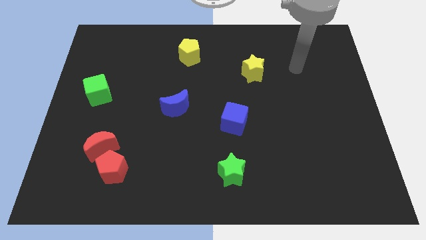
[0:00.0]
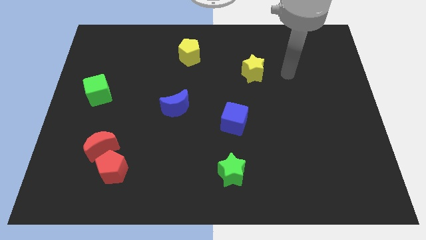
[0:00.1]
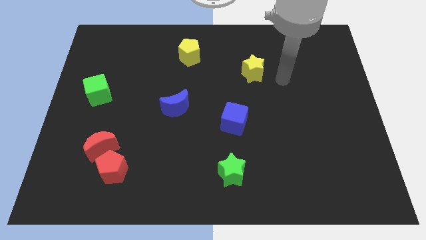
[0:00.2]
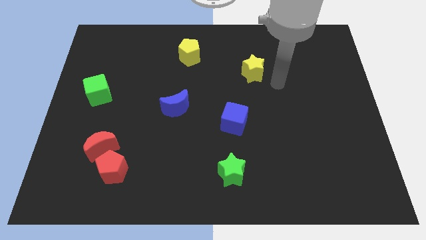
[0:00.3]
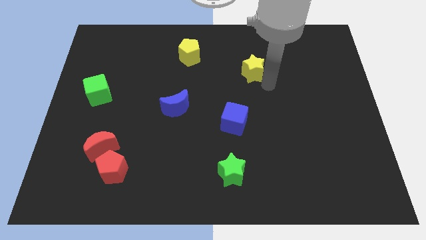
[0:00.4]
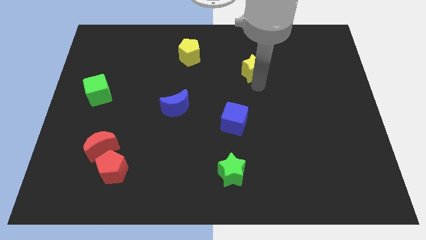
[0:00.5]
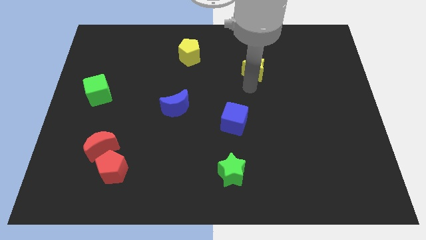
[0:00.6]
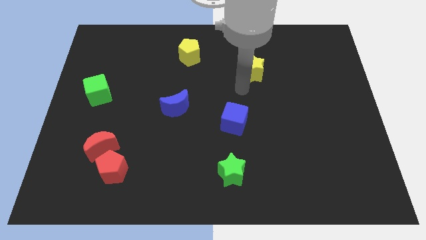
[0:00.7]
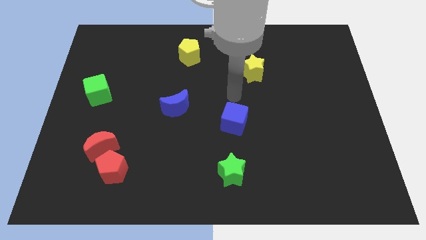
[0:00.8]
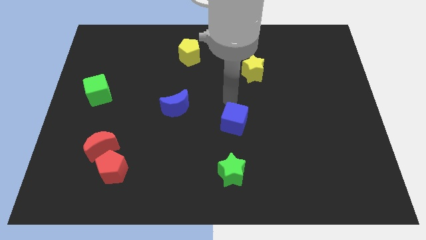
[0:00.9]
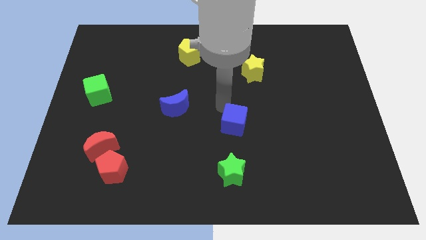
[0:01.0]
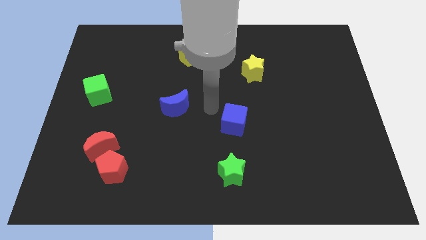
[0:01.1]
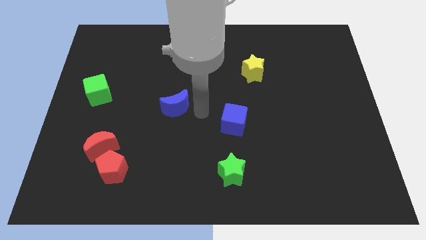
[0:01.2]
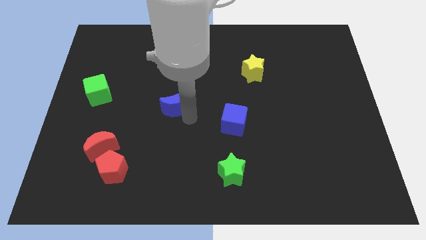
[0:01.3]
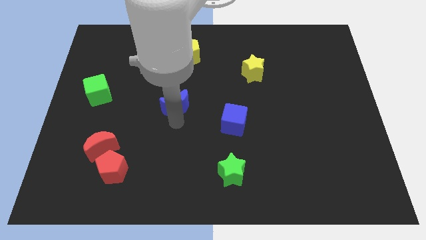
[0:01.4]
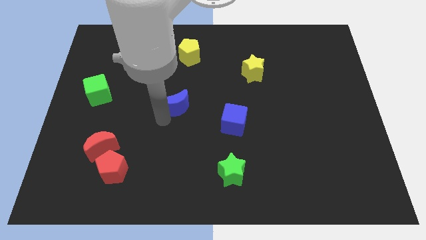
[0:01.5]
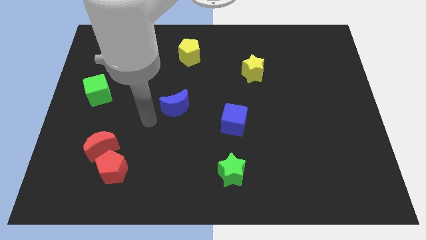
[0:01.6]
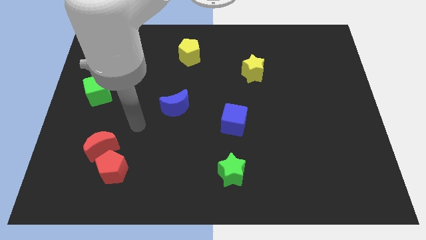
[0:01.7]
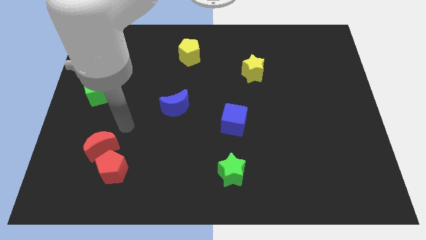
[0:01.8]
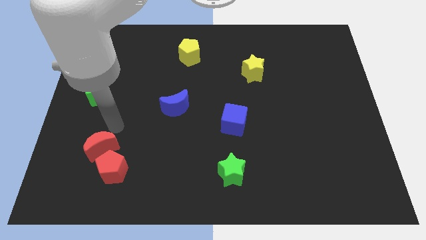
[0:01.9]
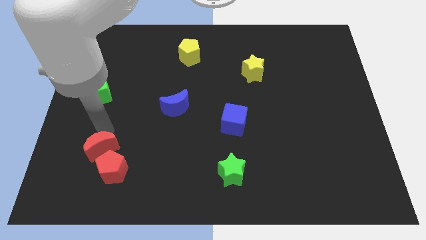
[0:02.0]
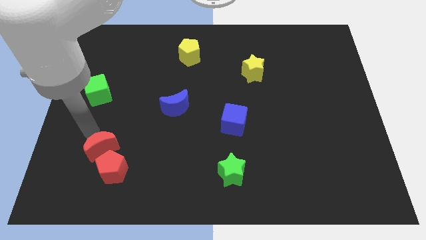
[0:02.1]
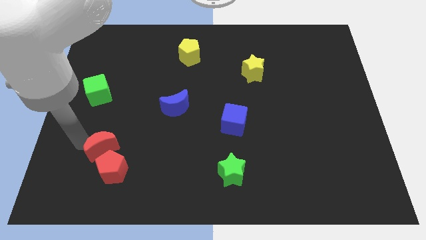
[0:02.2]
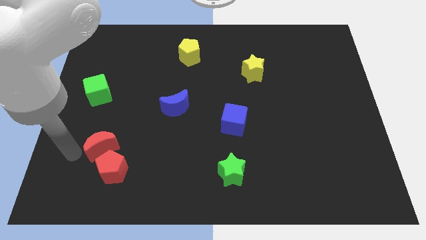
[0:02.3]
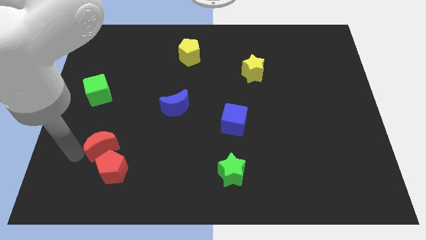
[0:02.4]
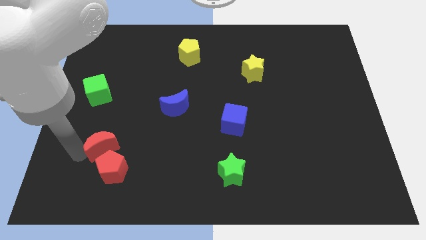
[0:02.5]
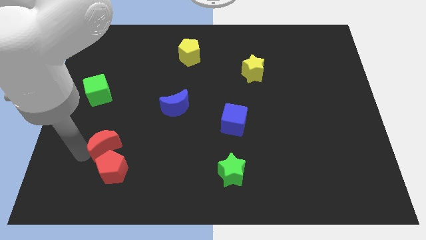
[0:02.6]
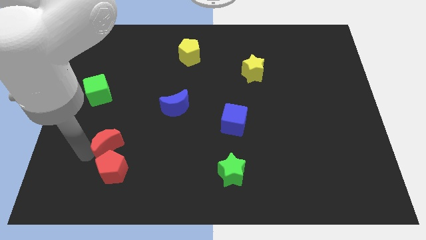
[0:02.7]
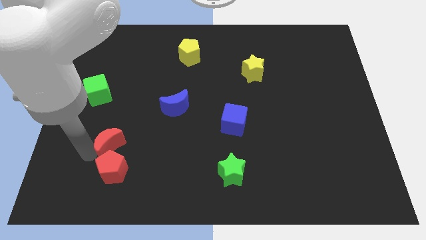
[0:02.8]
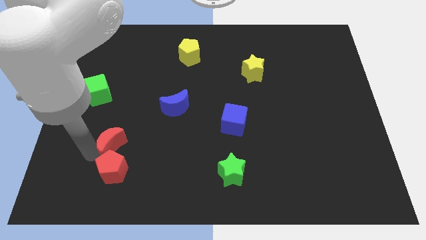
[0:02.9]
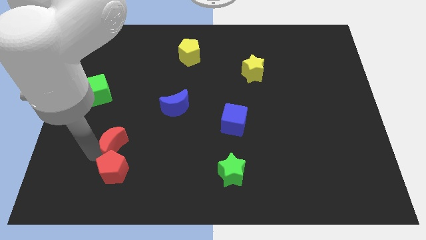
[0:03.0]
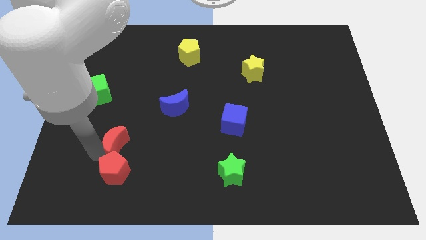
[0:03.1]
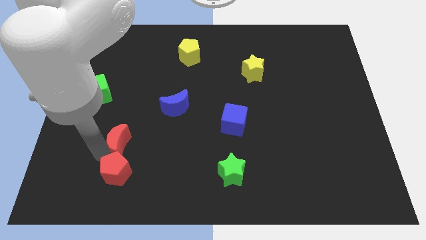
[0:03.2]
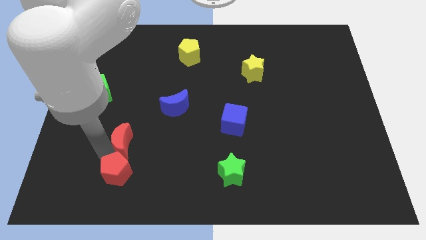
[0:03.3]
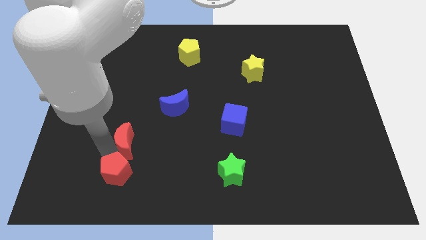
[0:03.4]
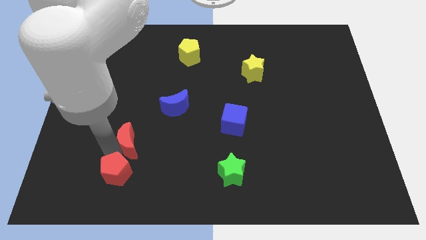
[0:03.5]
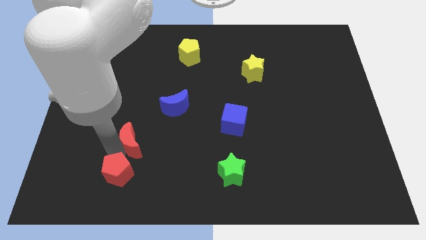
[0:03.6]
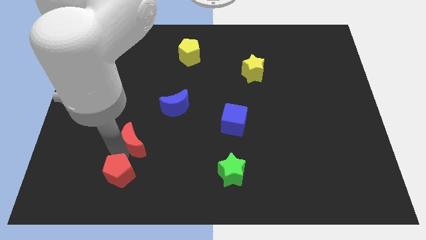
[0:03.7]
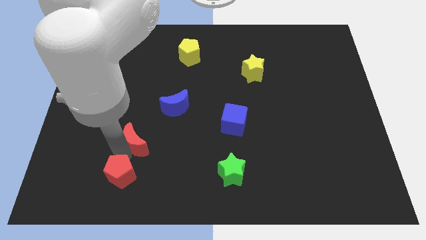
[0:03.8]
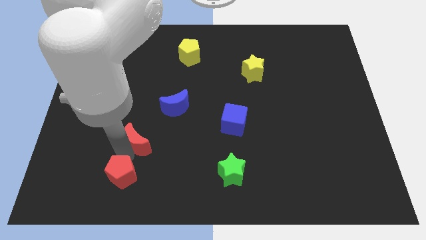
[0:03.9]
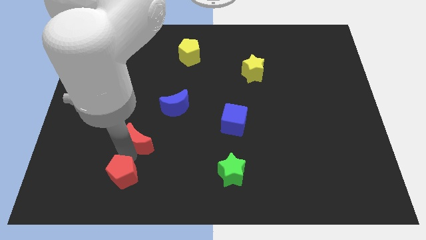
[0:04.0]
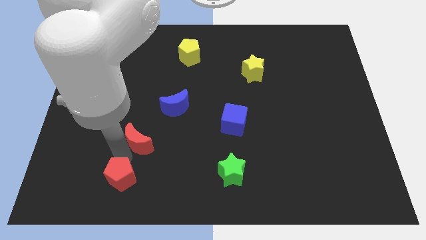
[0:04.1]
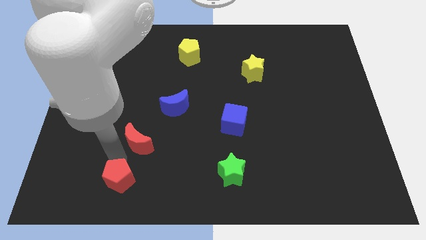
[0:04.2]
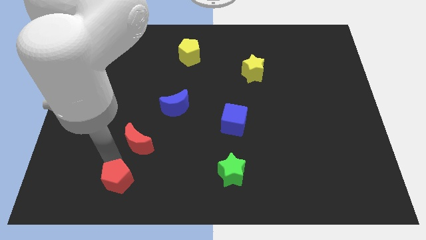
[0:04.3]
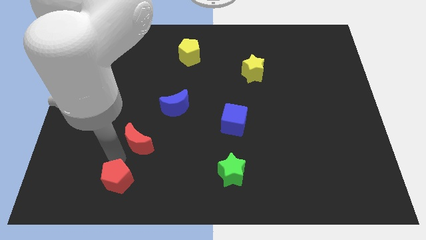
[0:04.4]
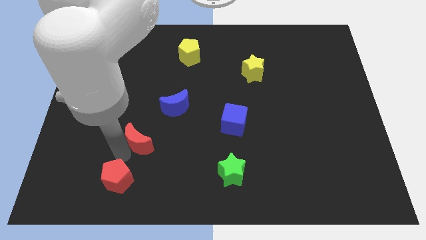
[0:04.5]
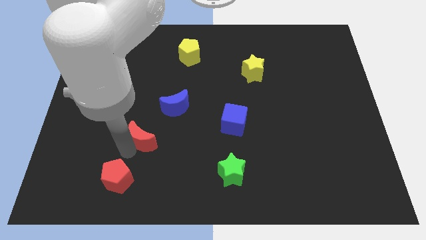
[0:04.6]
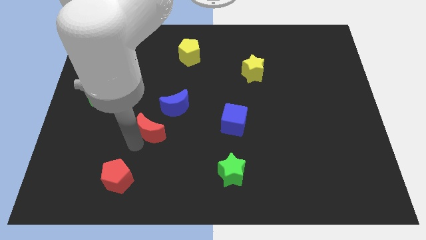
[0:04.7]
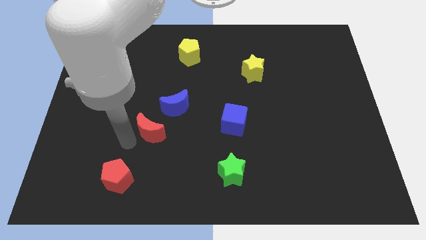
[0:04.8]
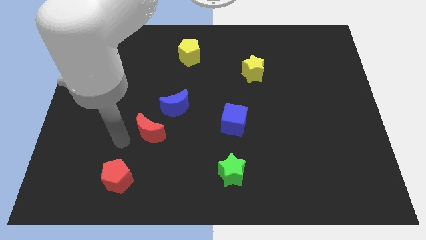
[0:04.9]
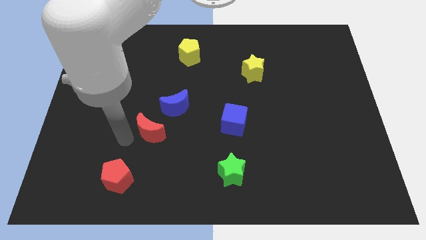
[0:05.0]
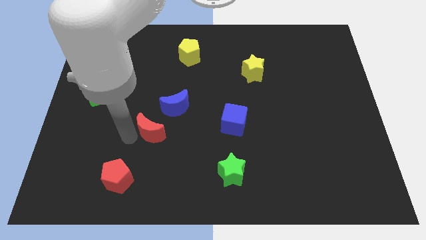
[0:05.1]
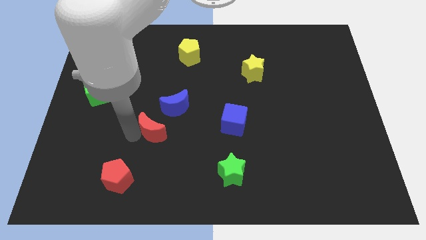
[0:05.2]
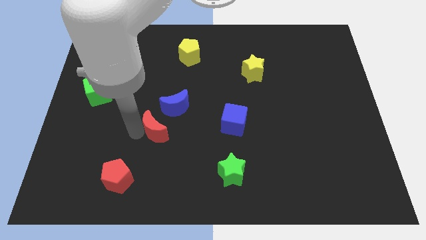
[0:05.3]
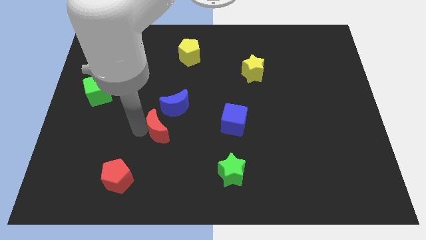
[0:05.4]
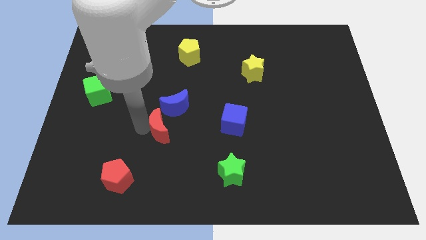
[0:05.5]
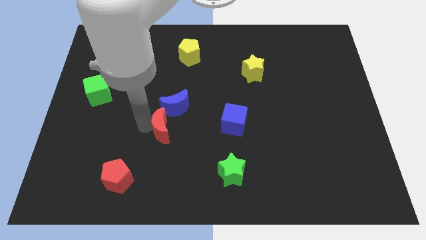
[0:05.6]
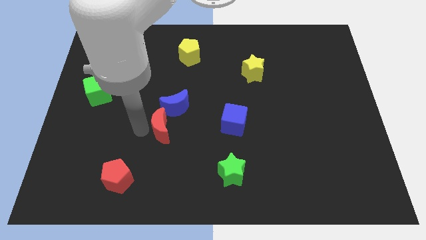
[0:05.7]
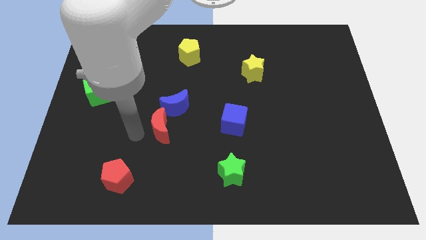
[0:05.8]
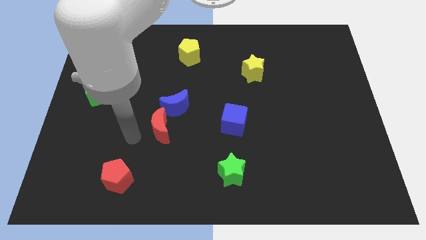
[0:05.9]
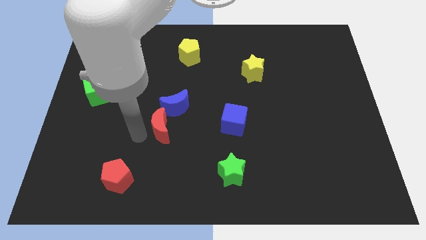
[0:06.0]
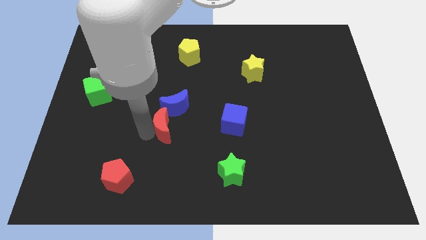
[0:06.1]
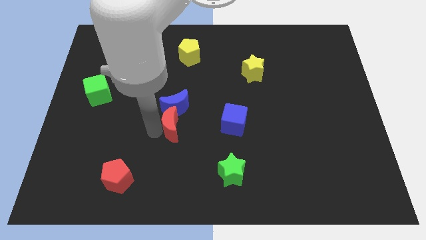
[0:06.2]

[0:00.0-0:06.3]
put the red moon to the center
